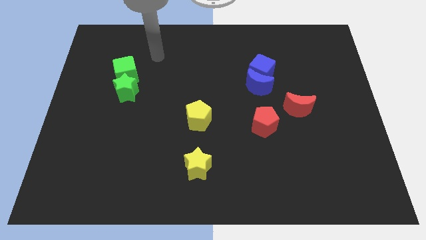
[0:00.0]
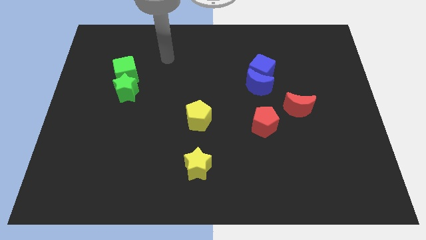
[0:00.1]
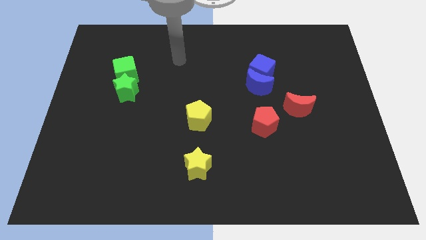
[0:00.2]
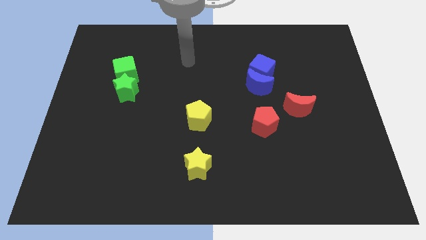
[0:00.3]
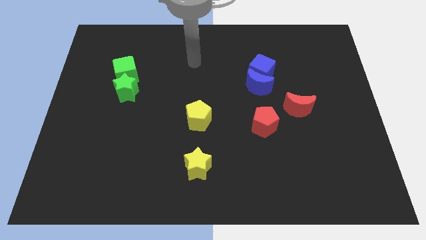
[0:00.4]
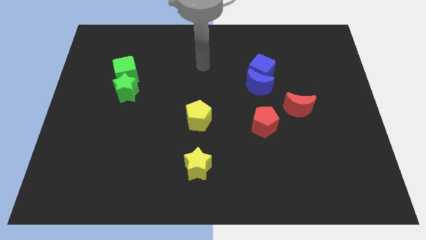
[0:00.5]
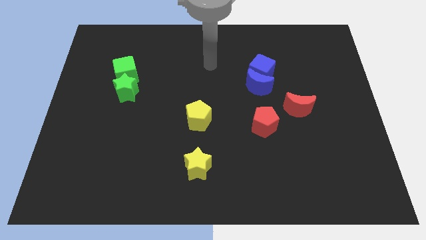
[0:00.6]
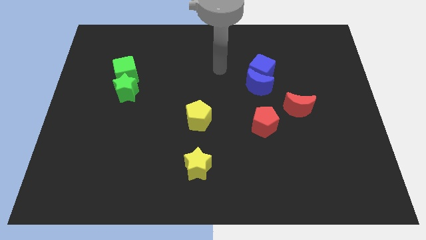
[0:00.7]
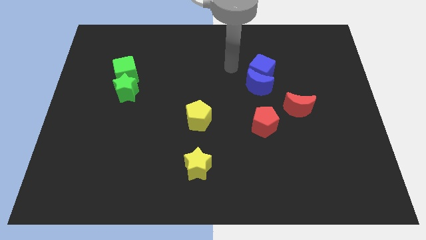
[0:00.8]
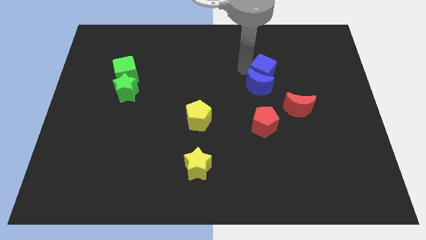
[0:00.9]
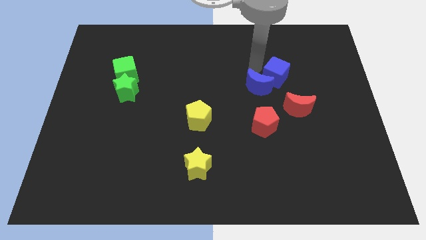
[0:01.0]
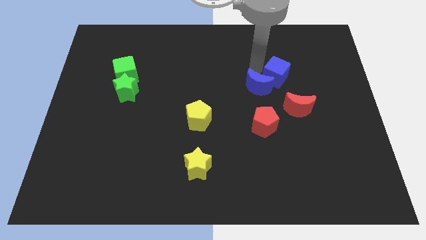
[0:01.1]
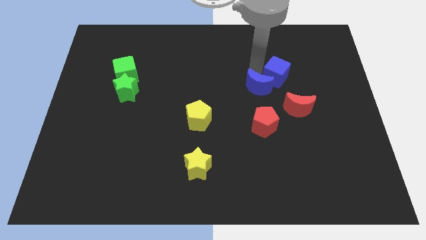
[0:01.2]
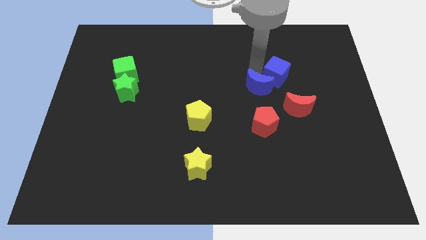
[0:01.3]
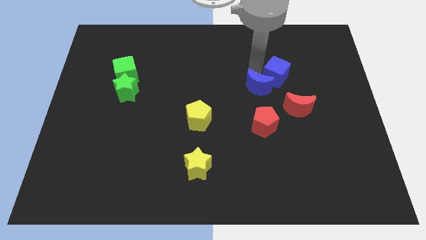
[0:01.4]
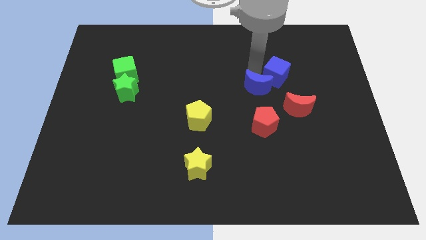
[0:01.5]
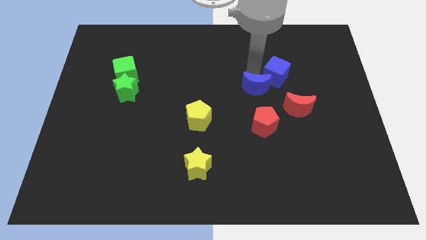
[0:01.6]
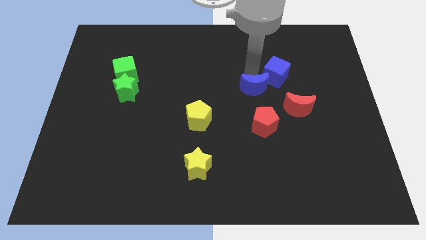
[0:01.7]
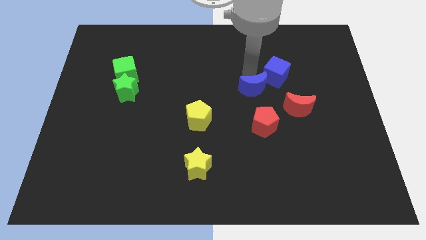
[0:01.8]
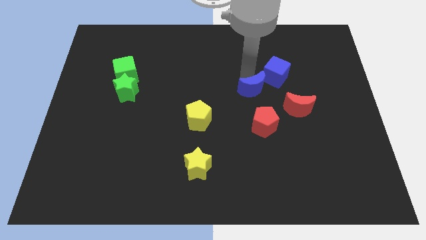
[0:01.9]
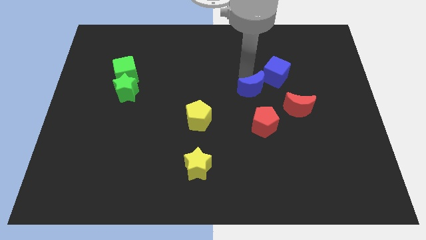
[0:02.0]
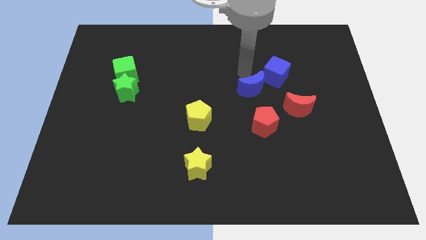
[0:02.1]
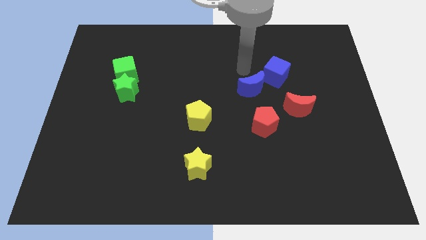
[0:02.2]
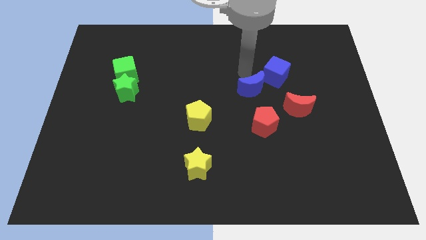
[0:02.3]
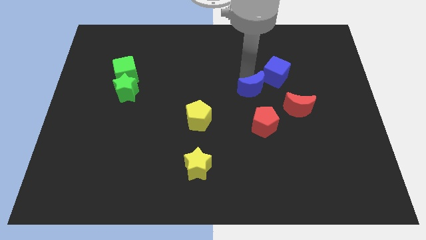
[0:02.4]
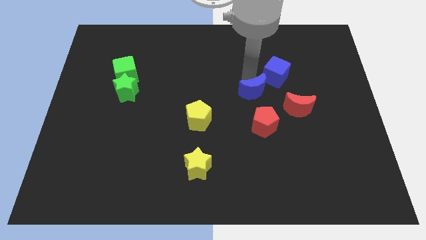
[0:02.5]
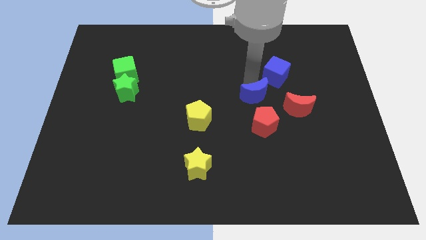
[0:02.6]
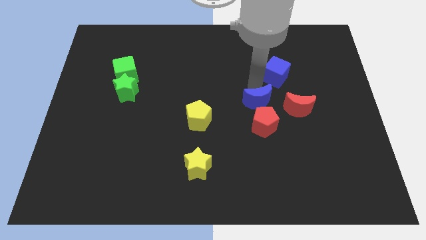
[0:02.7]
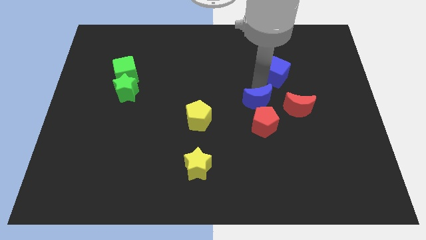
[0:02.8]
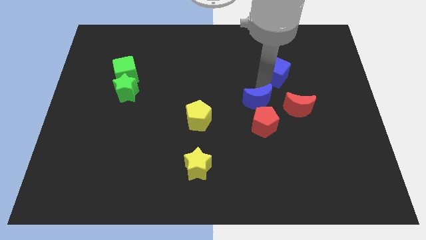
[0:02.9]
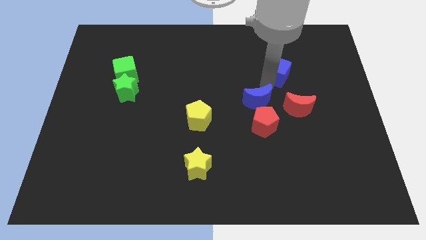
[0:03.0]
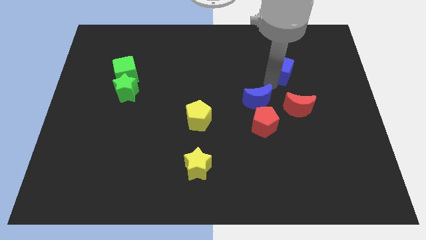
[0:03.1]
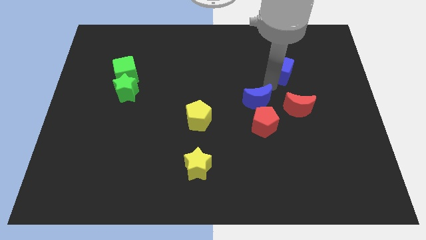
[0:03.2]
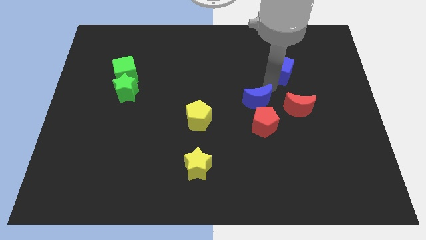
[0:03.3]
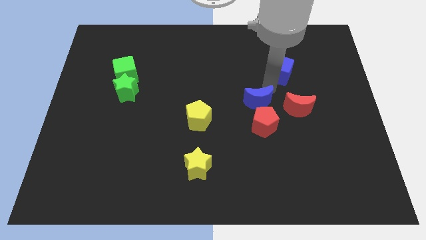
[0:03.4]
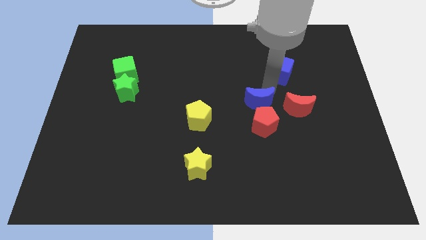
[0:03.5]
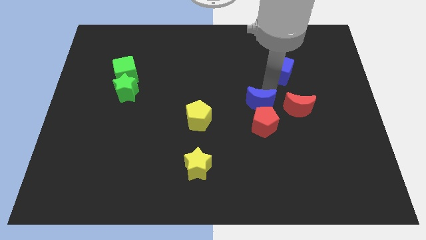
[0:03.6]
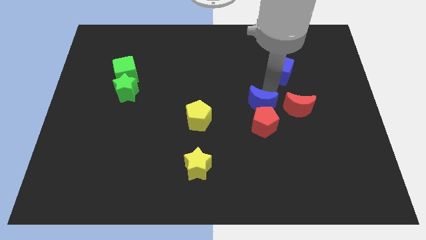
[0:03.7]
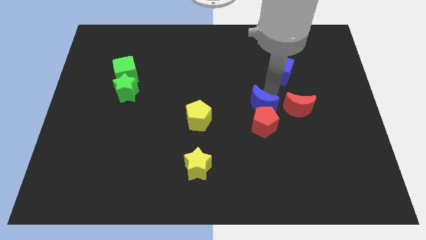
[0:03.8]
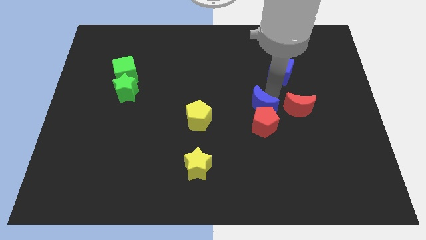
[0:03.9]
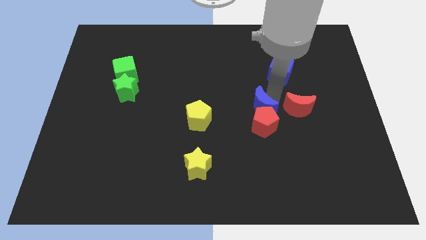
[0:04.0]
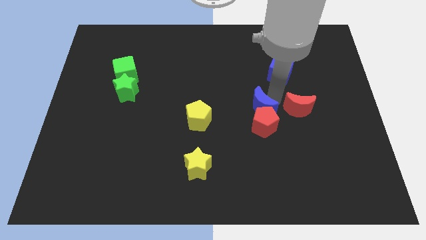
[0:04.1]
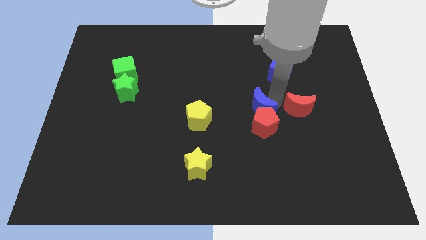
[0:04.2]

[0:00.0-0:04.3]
slide the blue moon downwards somewhat

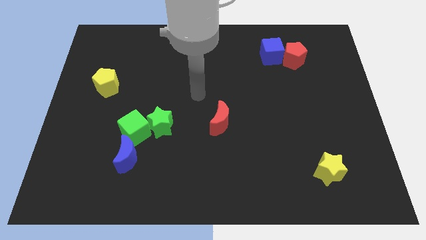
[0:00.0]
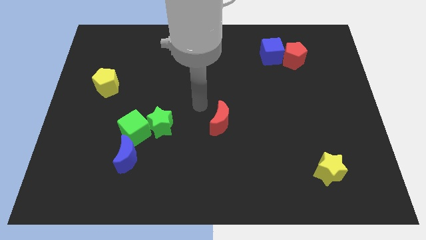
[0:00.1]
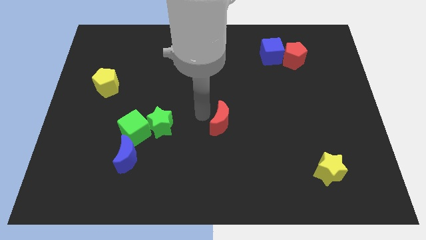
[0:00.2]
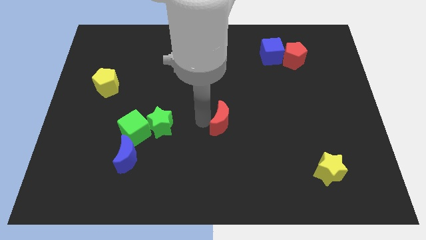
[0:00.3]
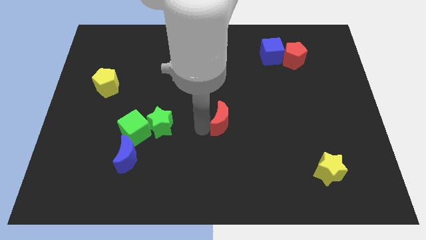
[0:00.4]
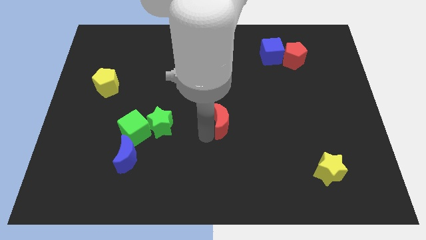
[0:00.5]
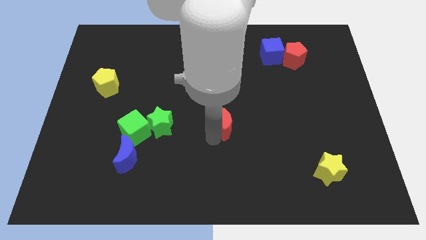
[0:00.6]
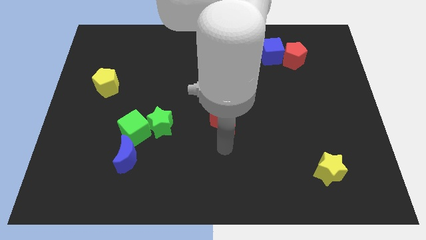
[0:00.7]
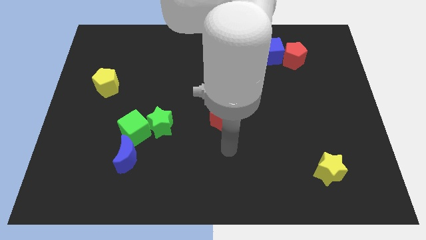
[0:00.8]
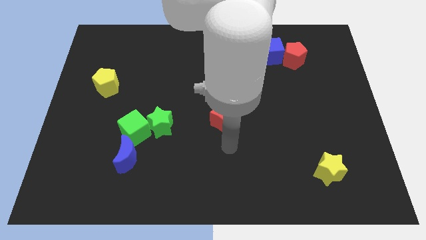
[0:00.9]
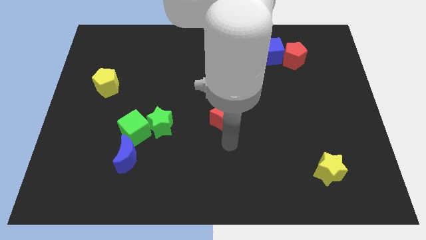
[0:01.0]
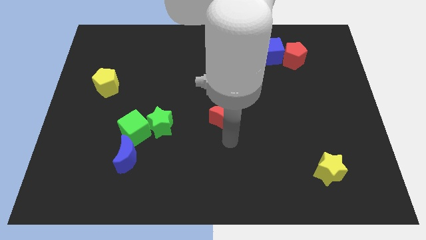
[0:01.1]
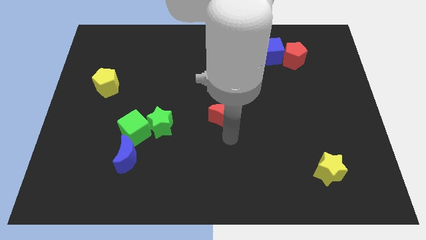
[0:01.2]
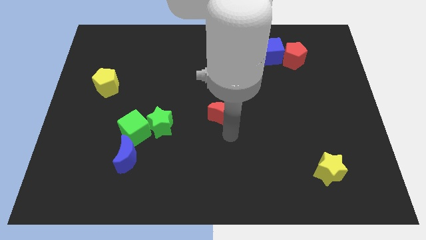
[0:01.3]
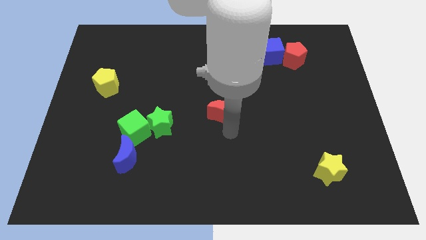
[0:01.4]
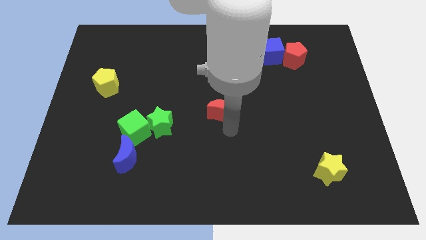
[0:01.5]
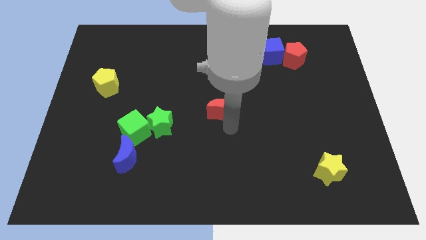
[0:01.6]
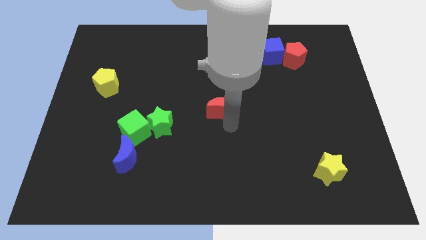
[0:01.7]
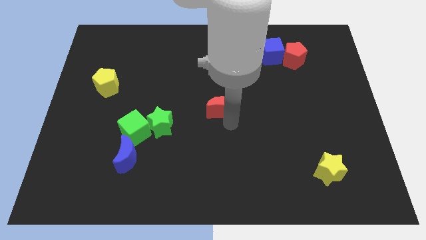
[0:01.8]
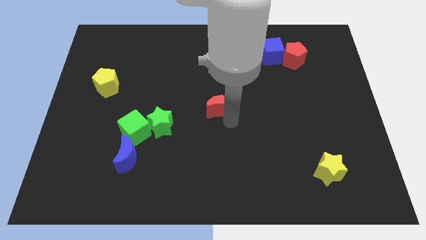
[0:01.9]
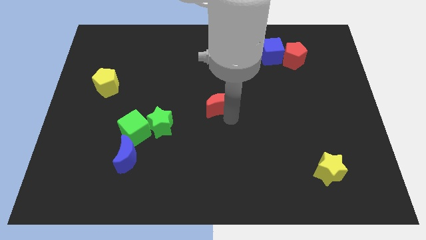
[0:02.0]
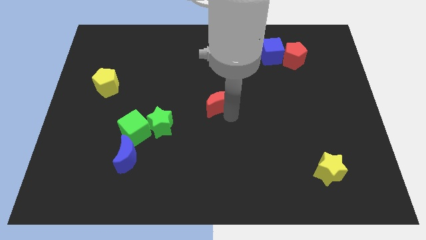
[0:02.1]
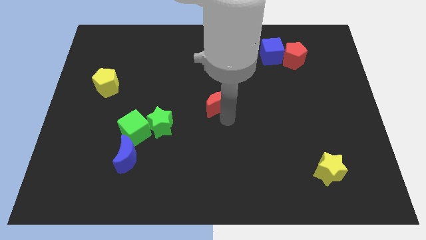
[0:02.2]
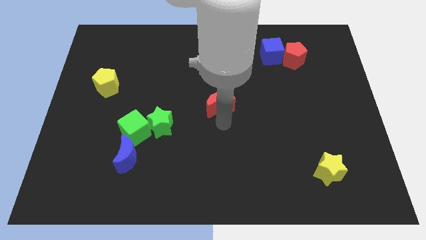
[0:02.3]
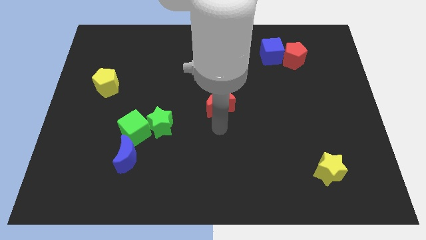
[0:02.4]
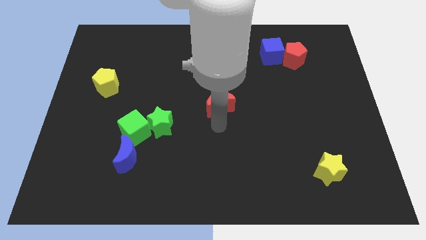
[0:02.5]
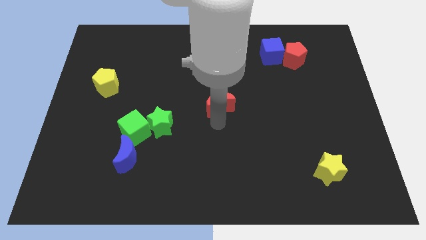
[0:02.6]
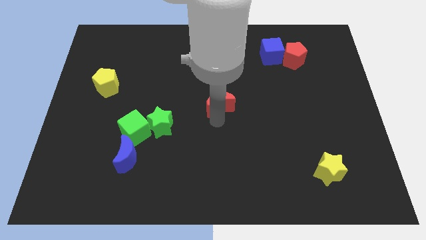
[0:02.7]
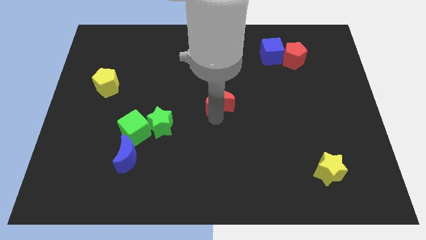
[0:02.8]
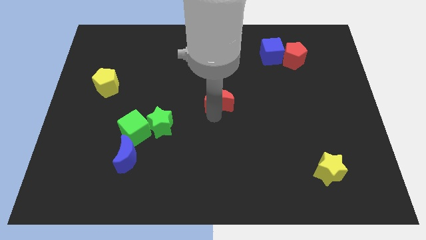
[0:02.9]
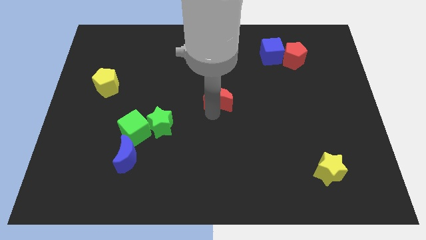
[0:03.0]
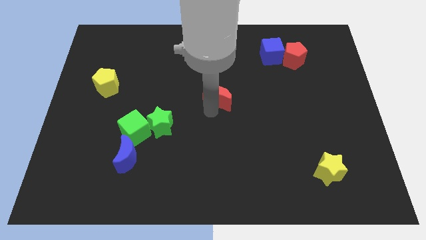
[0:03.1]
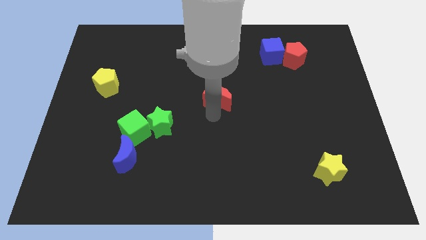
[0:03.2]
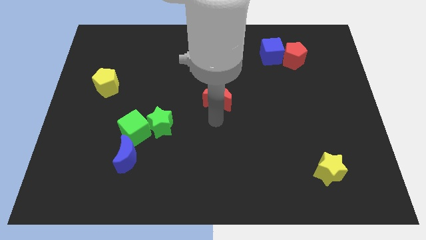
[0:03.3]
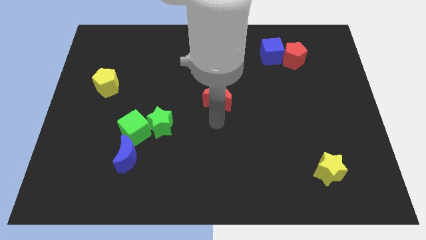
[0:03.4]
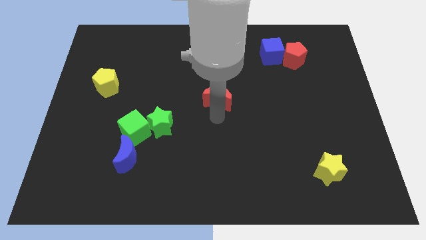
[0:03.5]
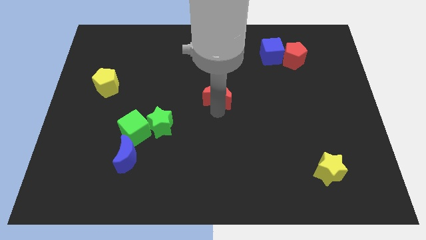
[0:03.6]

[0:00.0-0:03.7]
slide the red moon a little bit up
